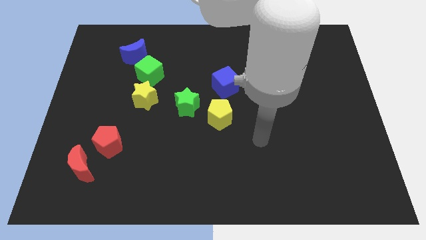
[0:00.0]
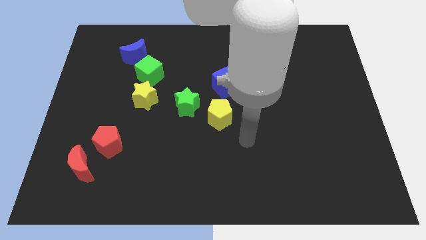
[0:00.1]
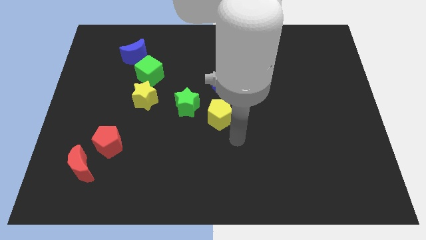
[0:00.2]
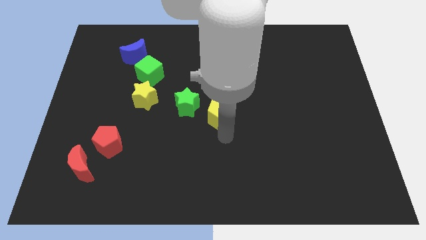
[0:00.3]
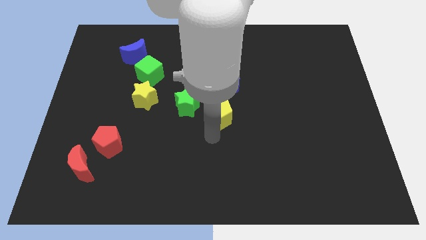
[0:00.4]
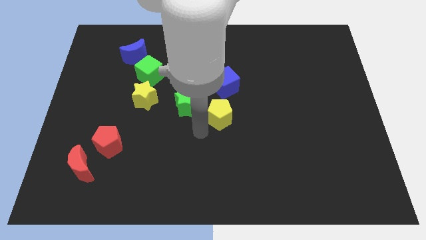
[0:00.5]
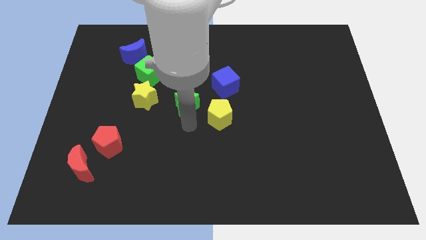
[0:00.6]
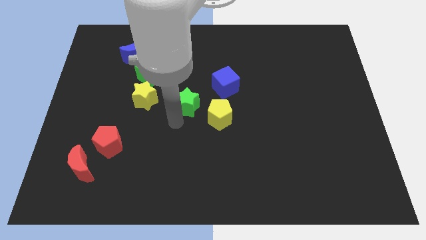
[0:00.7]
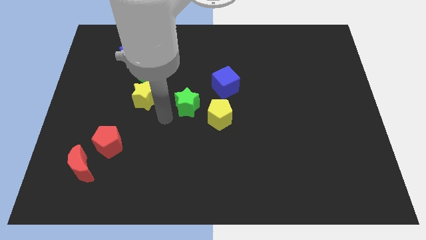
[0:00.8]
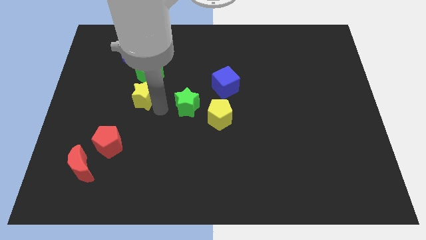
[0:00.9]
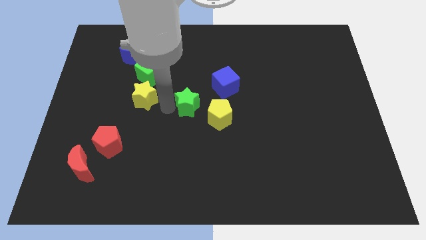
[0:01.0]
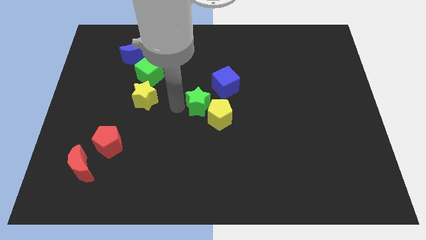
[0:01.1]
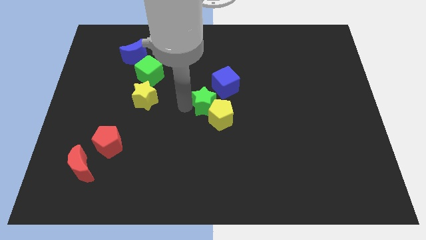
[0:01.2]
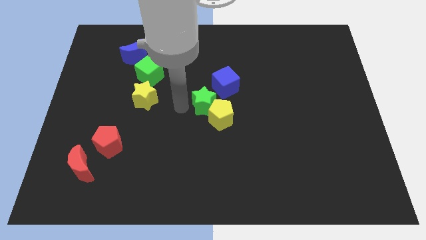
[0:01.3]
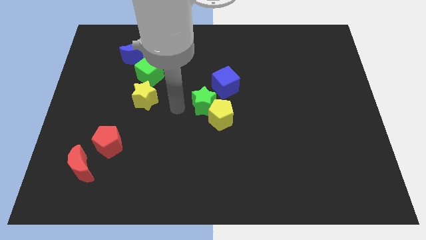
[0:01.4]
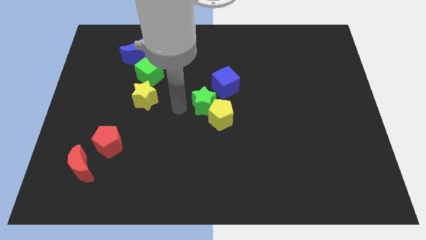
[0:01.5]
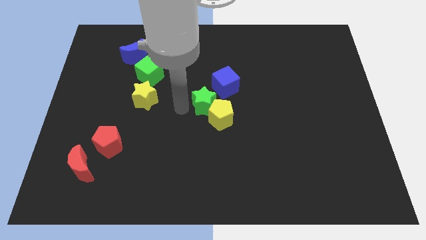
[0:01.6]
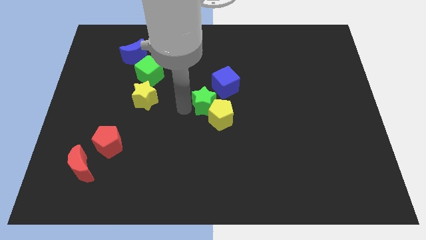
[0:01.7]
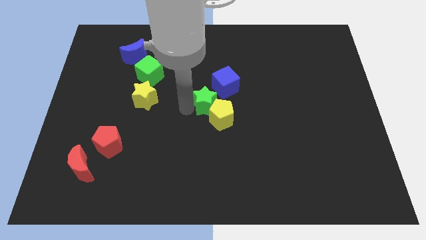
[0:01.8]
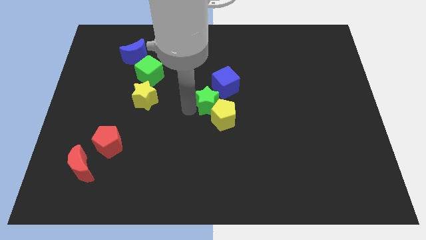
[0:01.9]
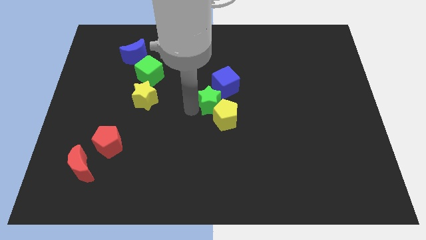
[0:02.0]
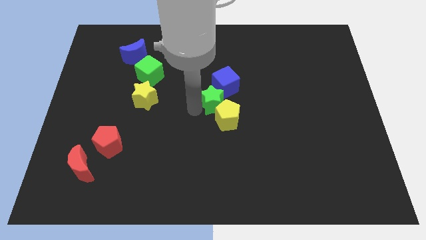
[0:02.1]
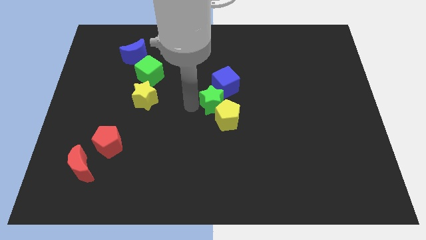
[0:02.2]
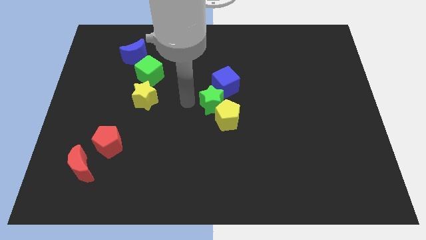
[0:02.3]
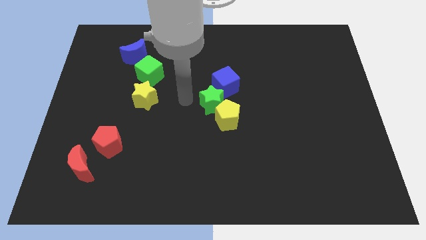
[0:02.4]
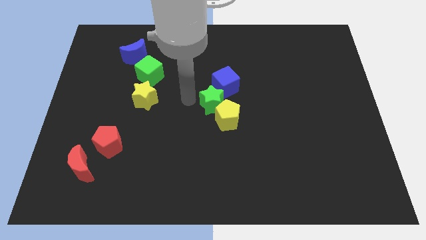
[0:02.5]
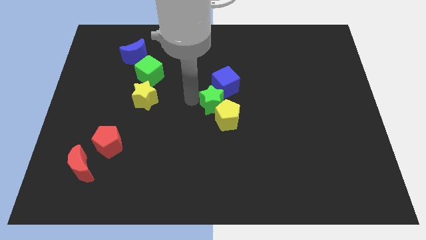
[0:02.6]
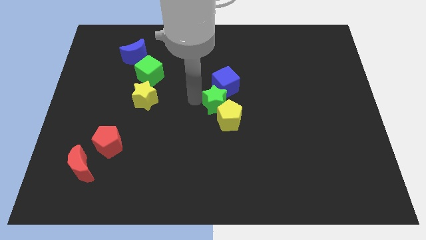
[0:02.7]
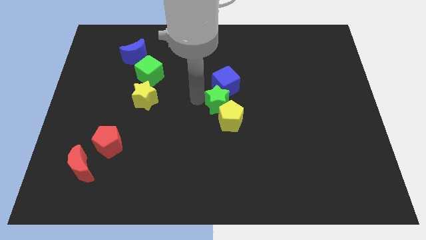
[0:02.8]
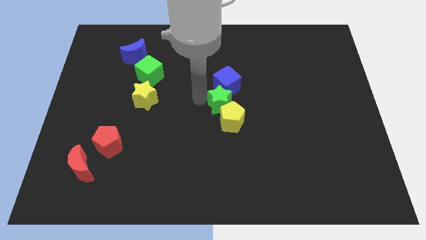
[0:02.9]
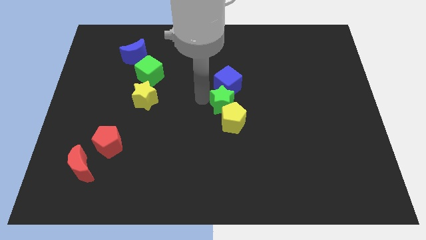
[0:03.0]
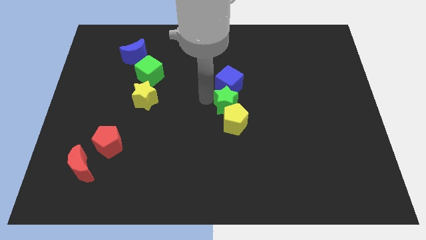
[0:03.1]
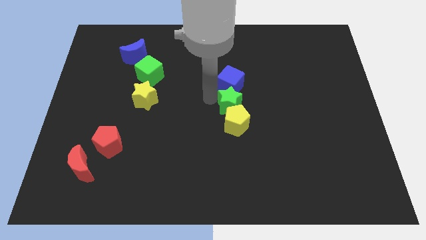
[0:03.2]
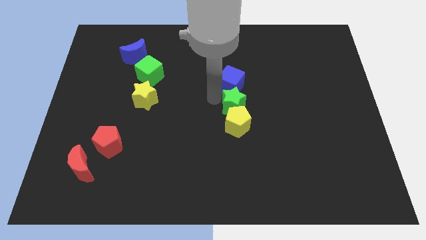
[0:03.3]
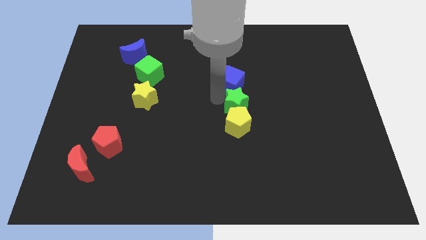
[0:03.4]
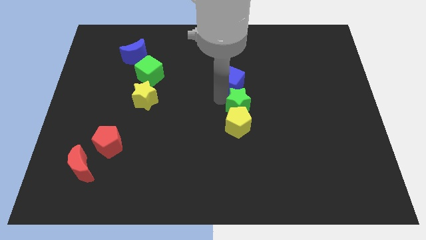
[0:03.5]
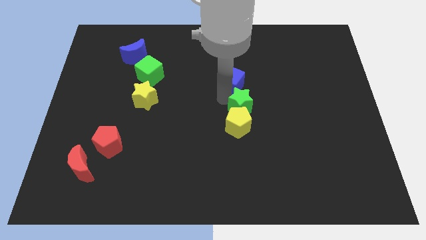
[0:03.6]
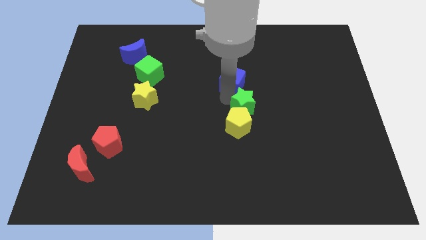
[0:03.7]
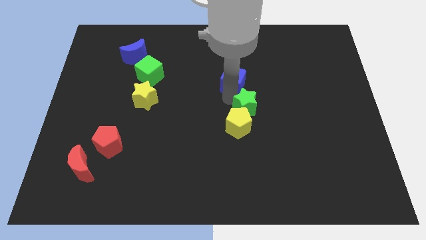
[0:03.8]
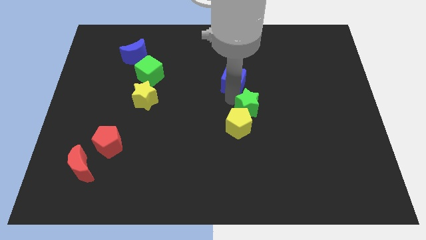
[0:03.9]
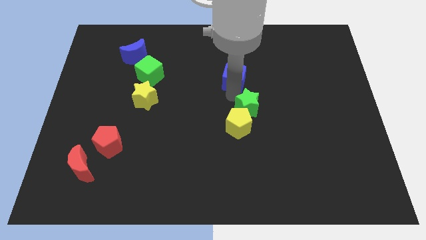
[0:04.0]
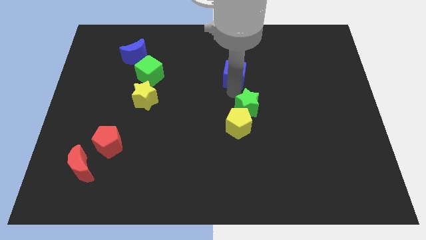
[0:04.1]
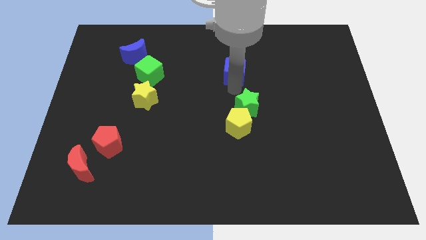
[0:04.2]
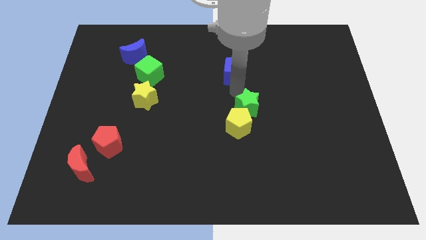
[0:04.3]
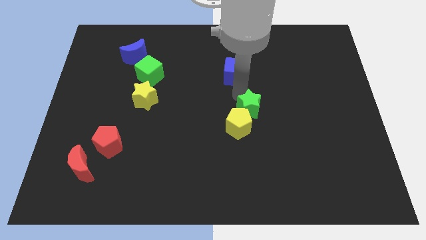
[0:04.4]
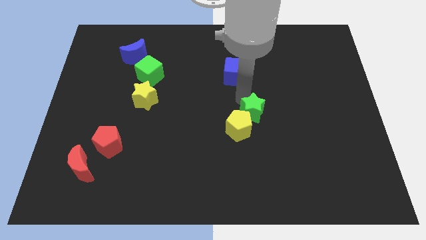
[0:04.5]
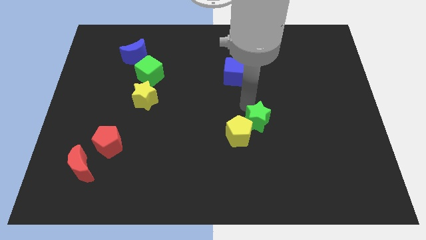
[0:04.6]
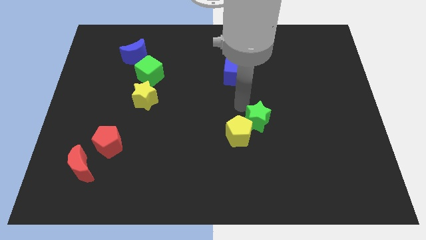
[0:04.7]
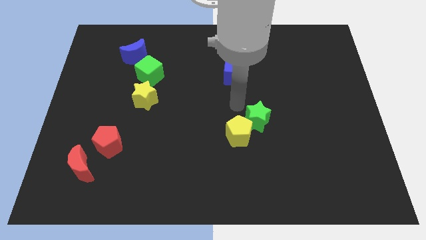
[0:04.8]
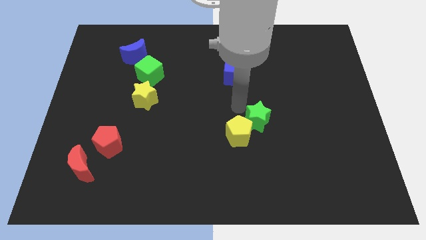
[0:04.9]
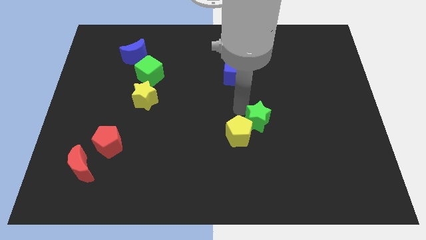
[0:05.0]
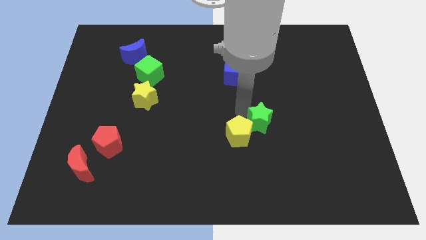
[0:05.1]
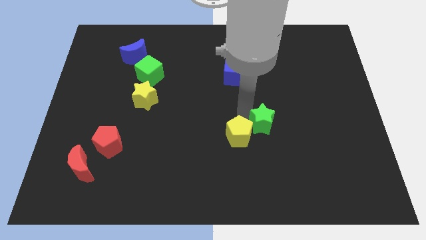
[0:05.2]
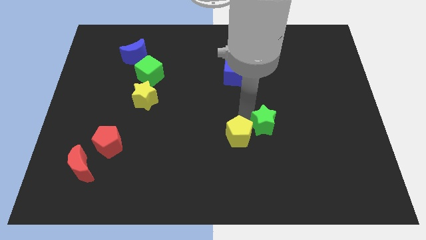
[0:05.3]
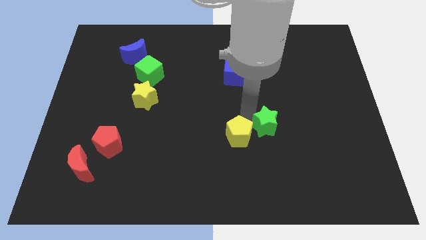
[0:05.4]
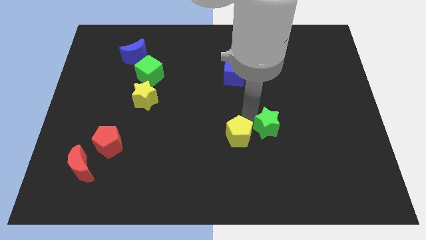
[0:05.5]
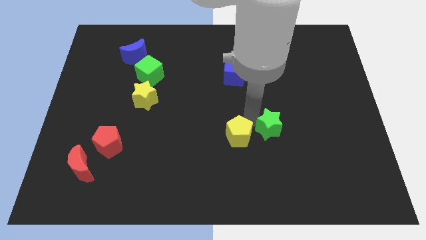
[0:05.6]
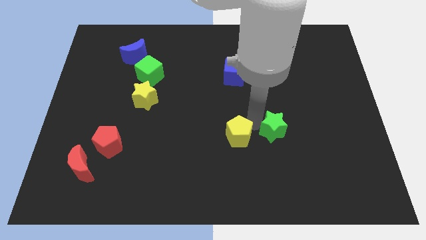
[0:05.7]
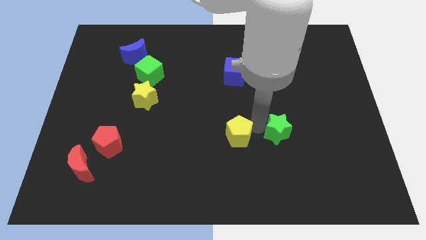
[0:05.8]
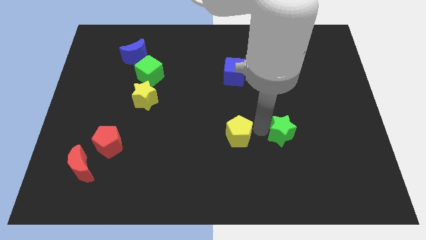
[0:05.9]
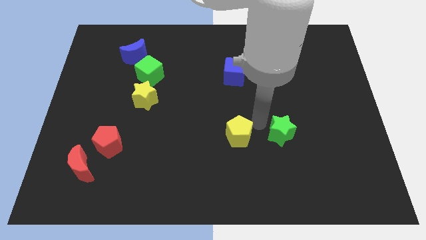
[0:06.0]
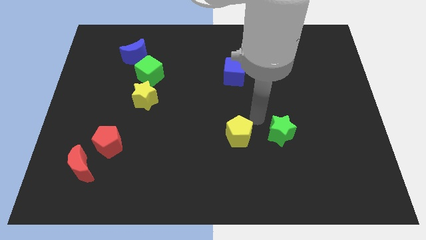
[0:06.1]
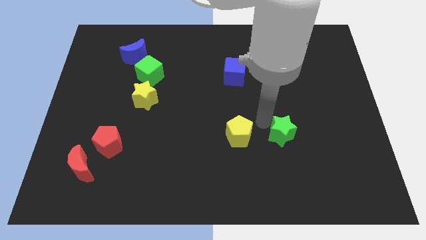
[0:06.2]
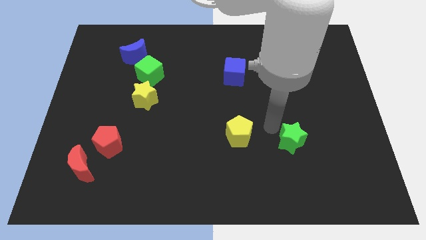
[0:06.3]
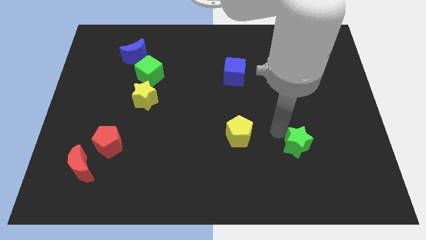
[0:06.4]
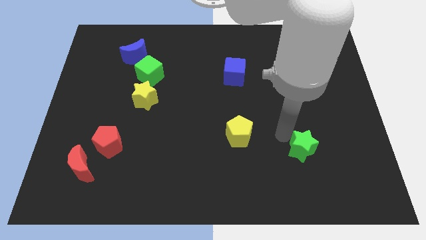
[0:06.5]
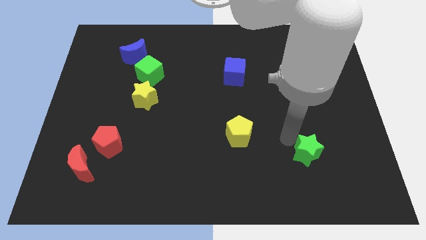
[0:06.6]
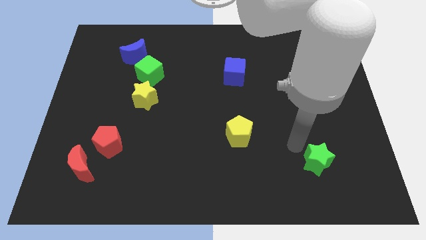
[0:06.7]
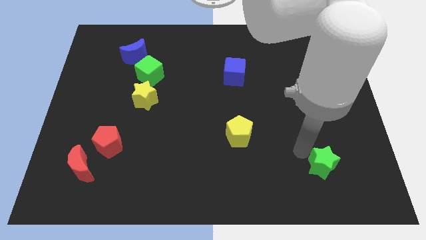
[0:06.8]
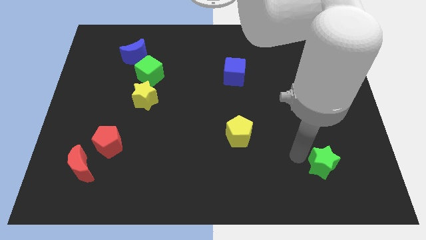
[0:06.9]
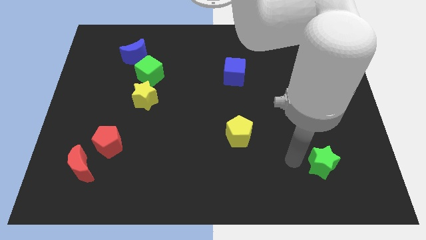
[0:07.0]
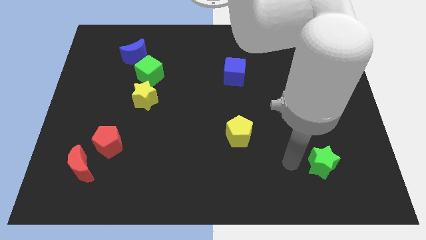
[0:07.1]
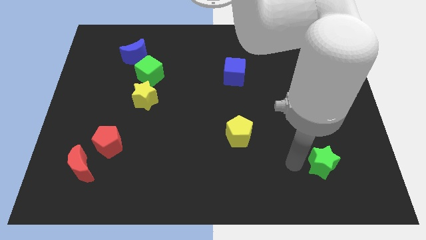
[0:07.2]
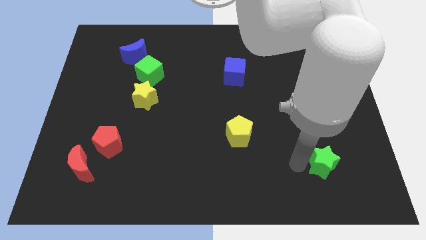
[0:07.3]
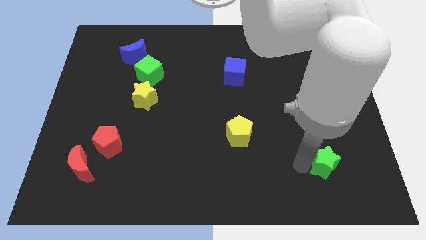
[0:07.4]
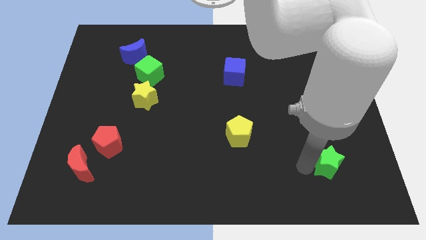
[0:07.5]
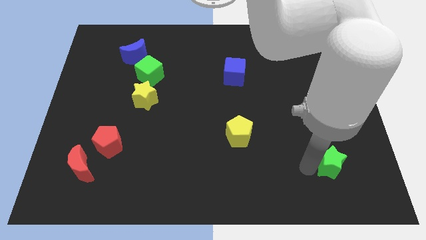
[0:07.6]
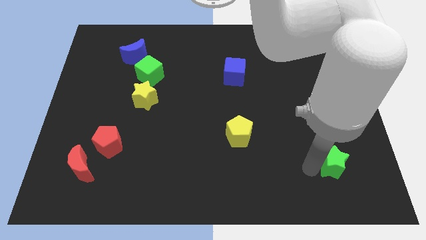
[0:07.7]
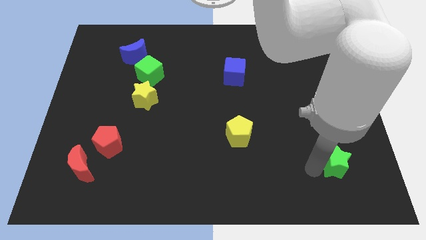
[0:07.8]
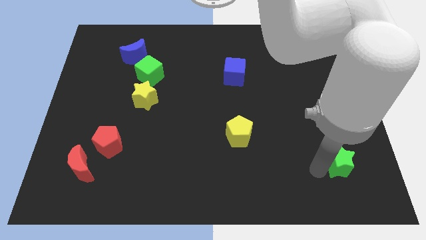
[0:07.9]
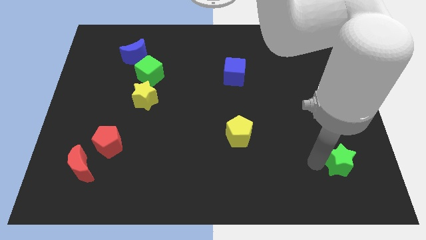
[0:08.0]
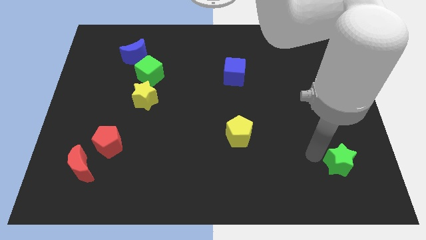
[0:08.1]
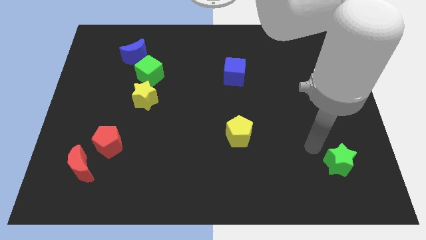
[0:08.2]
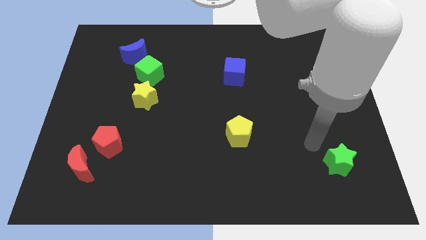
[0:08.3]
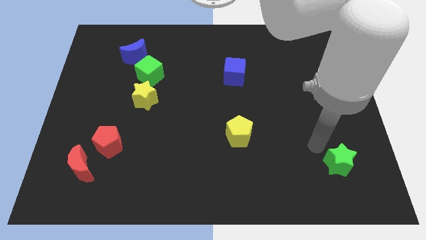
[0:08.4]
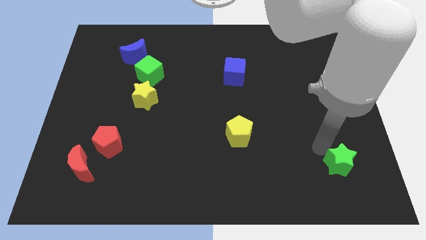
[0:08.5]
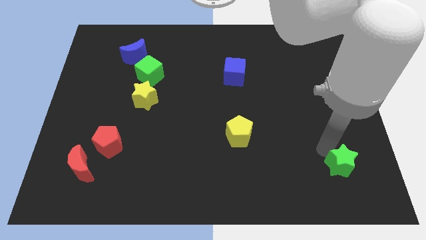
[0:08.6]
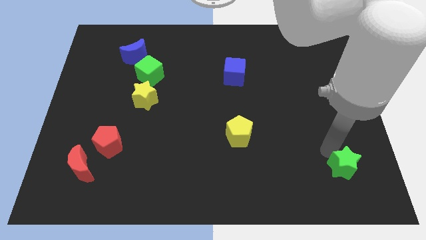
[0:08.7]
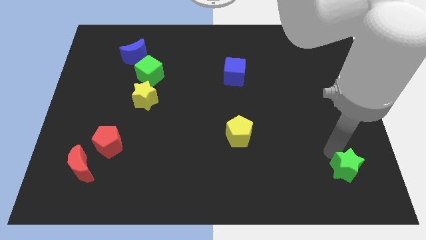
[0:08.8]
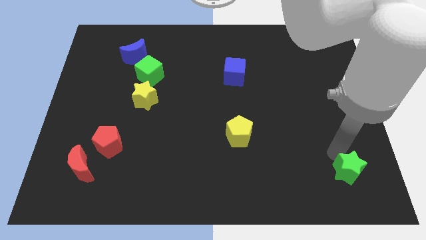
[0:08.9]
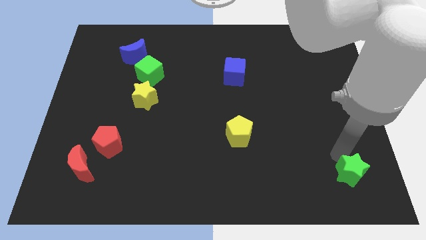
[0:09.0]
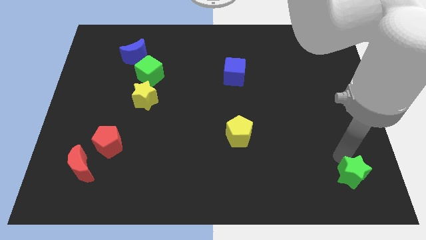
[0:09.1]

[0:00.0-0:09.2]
move the green star to the bottom right of the board
